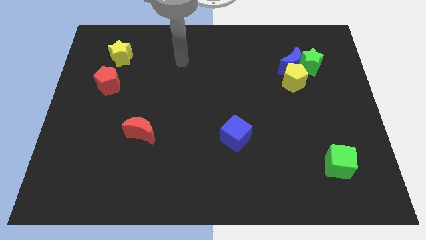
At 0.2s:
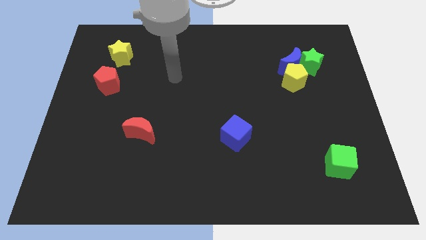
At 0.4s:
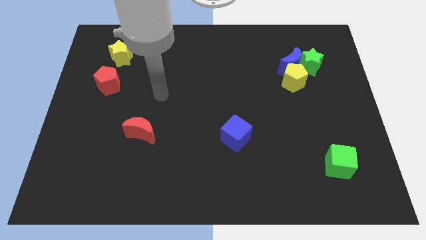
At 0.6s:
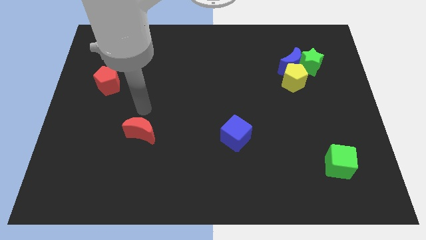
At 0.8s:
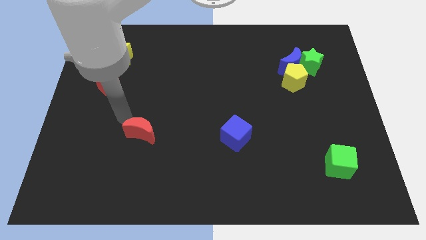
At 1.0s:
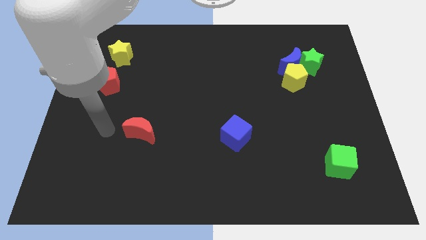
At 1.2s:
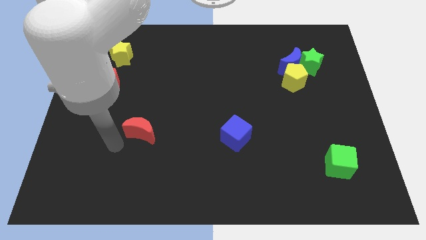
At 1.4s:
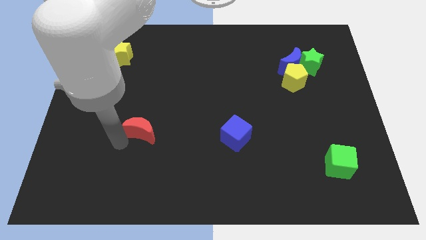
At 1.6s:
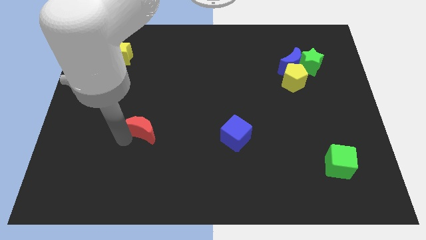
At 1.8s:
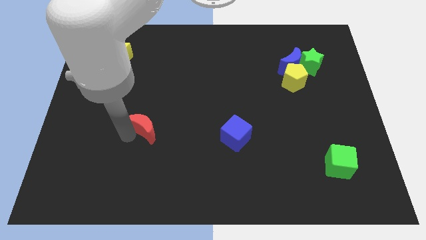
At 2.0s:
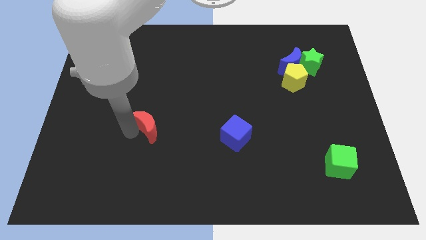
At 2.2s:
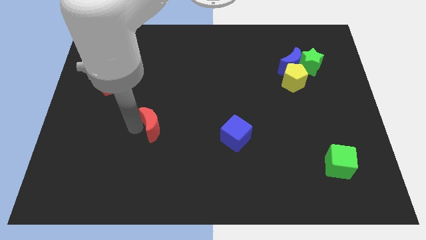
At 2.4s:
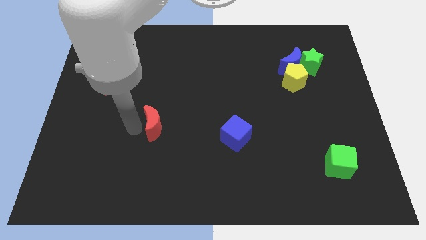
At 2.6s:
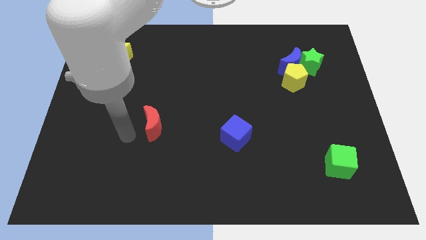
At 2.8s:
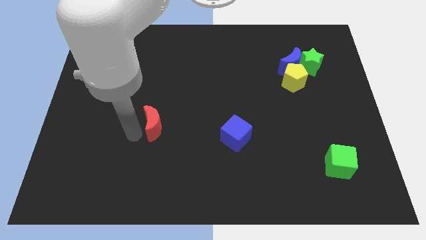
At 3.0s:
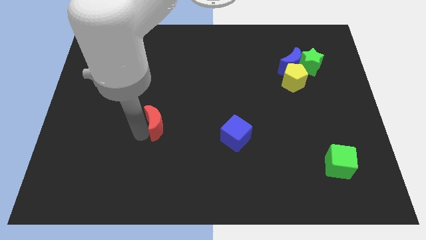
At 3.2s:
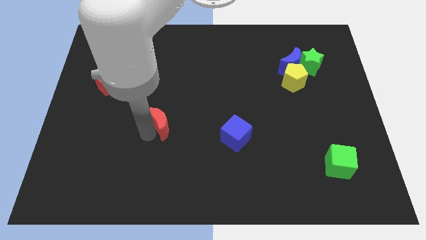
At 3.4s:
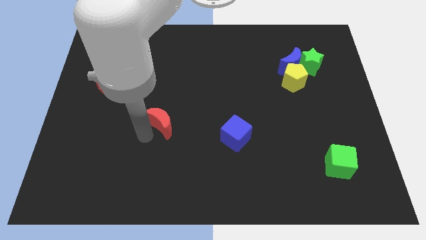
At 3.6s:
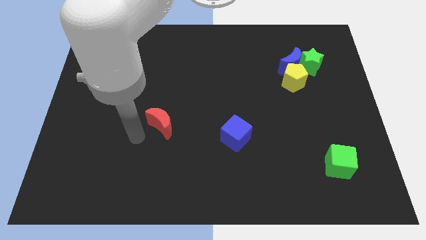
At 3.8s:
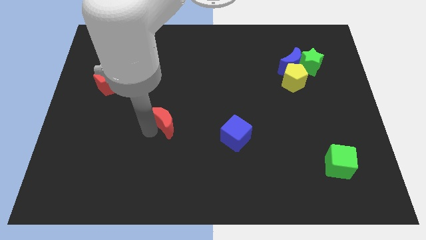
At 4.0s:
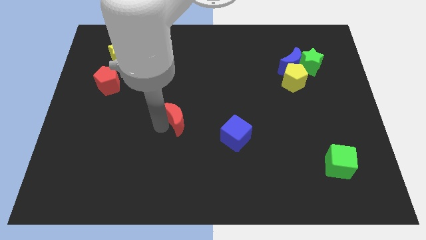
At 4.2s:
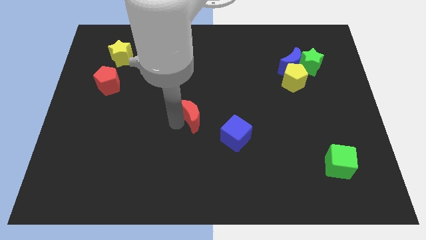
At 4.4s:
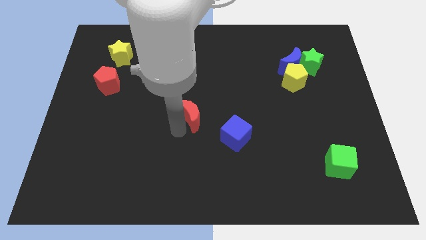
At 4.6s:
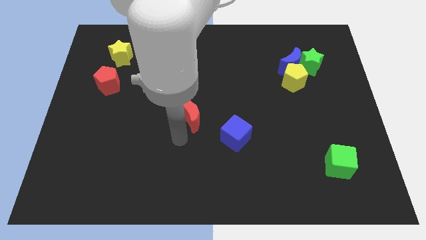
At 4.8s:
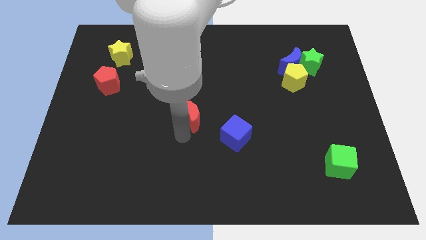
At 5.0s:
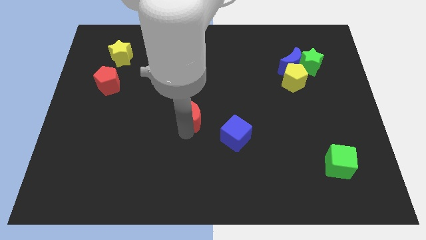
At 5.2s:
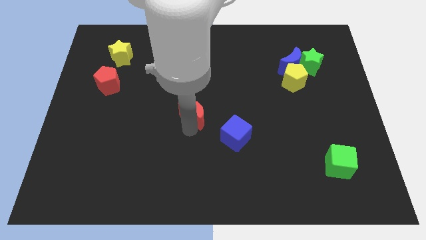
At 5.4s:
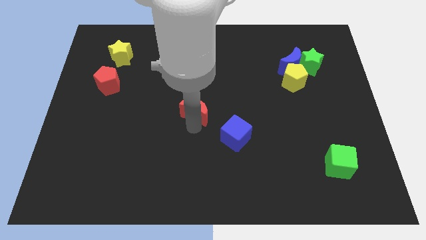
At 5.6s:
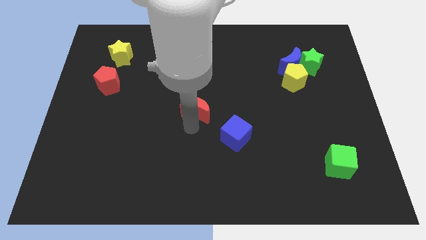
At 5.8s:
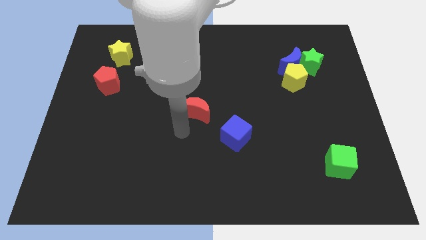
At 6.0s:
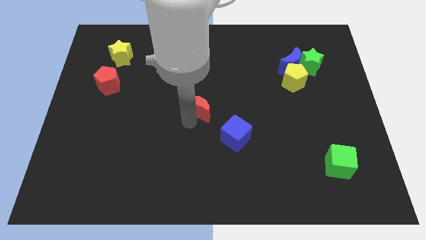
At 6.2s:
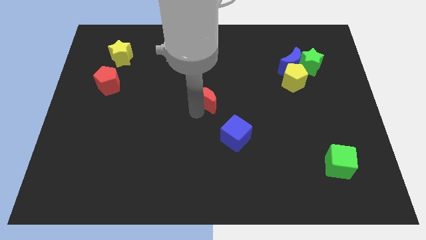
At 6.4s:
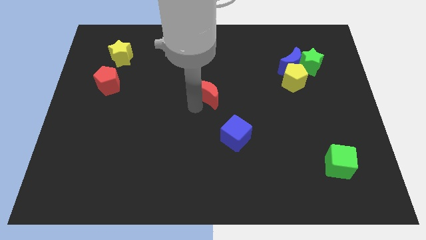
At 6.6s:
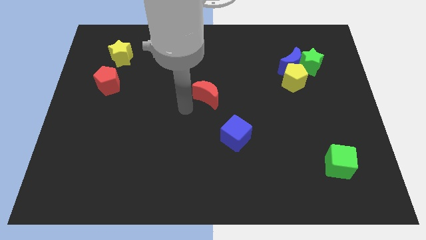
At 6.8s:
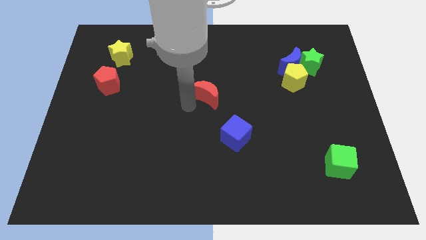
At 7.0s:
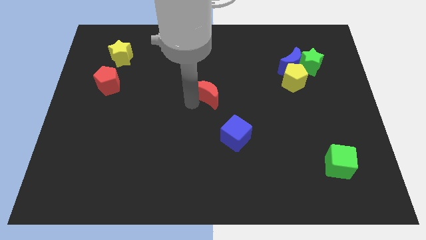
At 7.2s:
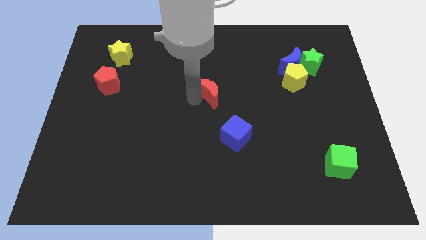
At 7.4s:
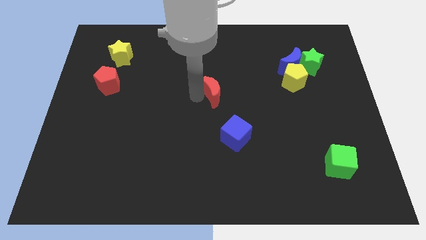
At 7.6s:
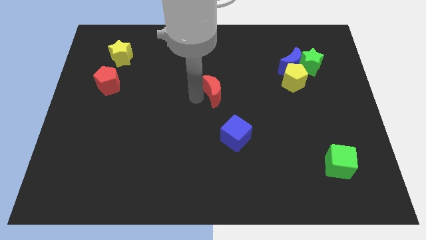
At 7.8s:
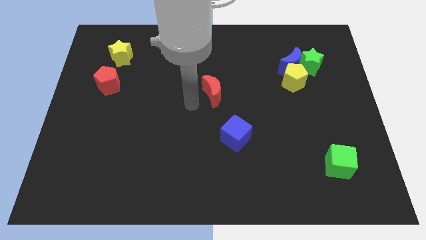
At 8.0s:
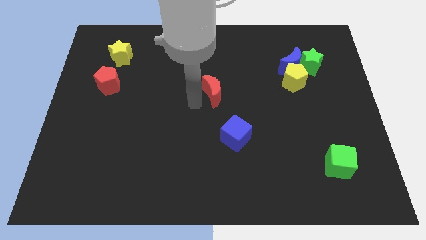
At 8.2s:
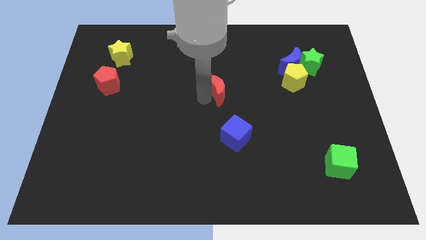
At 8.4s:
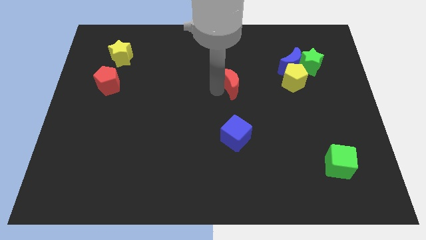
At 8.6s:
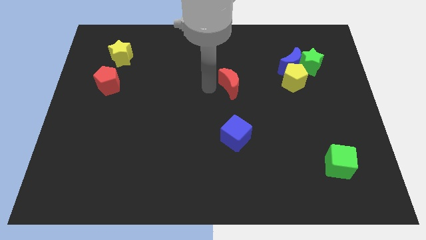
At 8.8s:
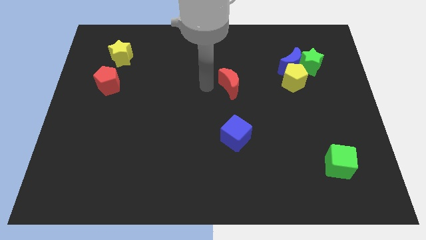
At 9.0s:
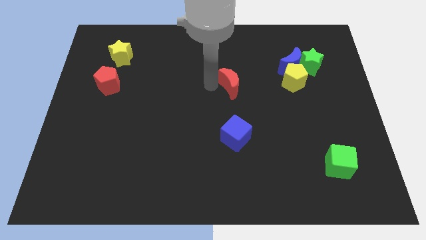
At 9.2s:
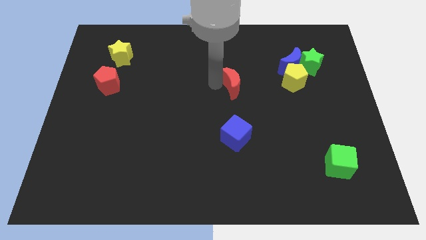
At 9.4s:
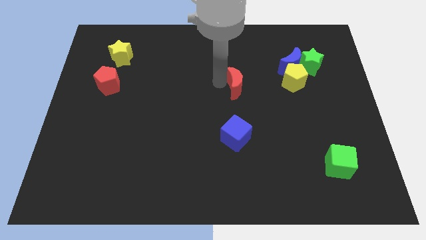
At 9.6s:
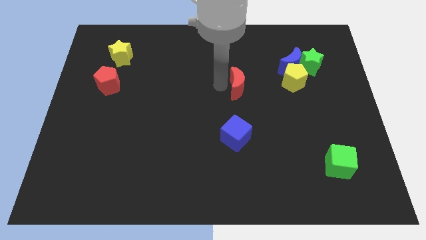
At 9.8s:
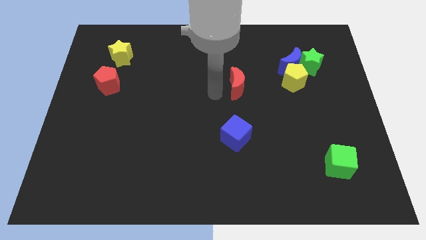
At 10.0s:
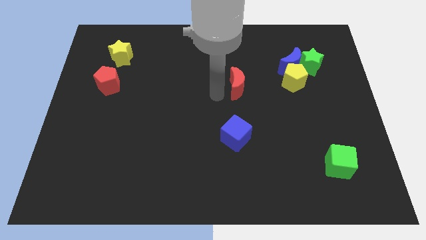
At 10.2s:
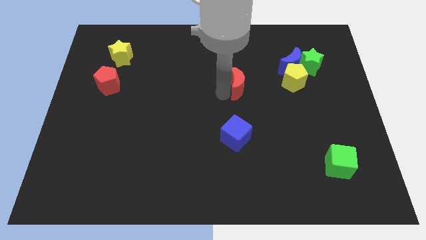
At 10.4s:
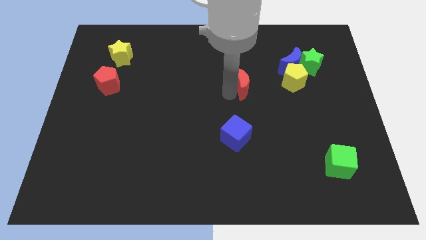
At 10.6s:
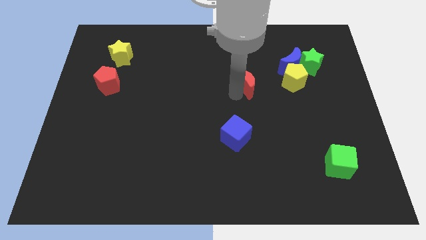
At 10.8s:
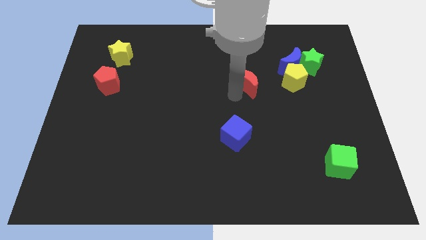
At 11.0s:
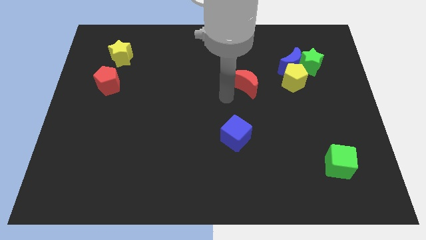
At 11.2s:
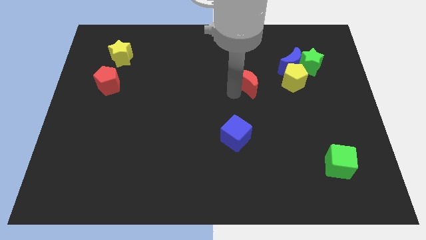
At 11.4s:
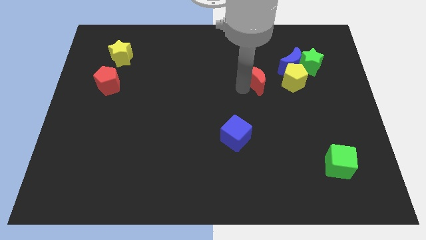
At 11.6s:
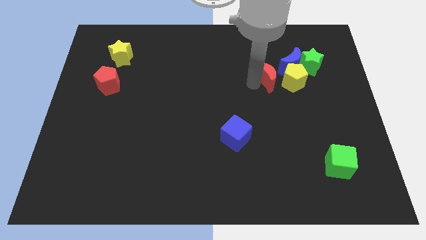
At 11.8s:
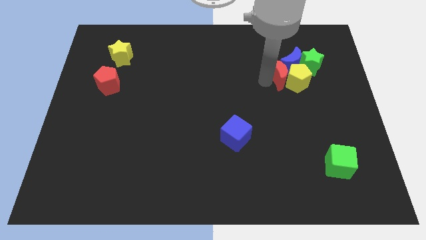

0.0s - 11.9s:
slide the red moon next to the blue moon

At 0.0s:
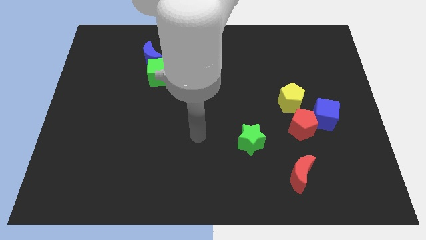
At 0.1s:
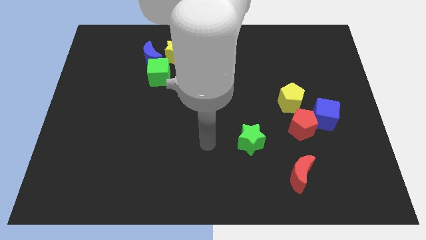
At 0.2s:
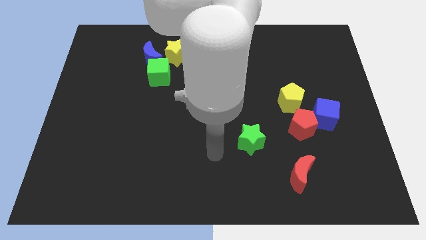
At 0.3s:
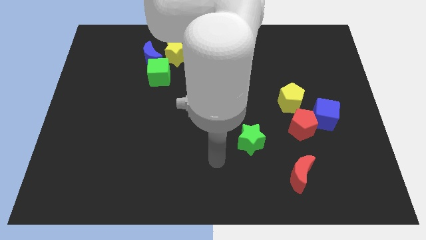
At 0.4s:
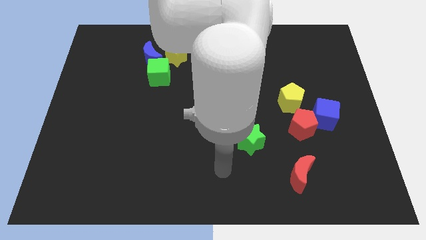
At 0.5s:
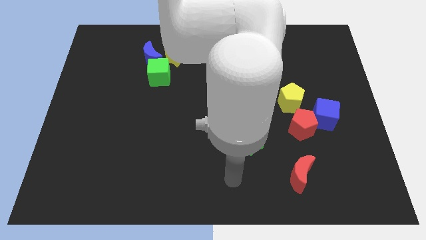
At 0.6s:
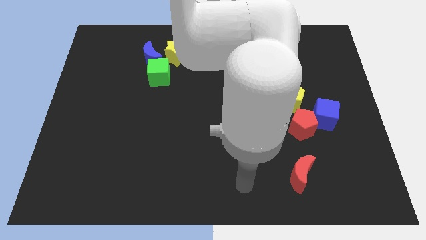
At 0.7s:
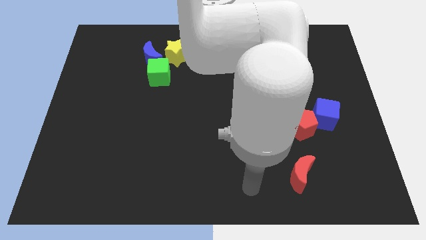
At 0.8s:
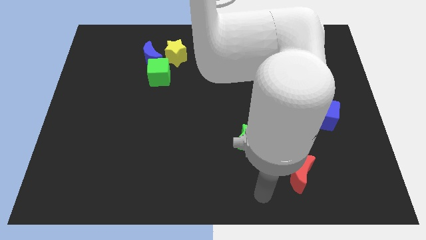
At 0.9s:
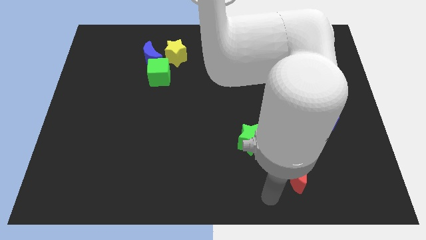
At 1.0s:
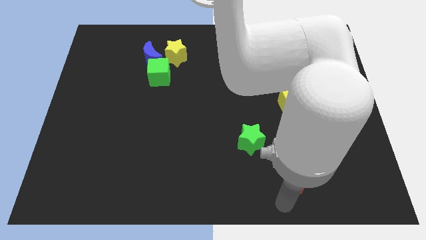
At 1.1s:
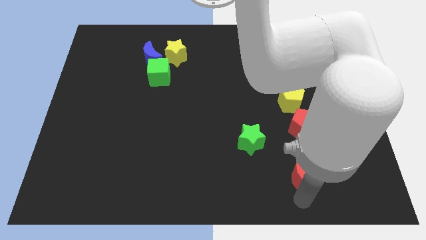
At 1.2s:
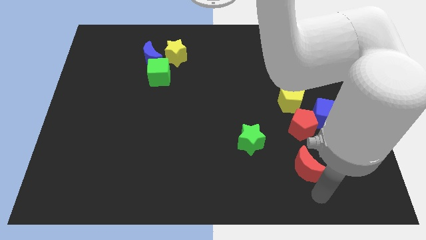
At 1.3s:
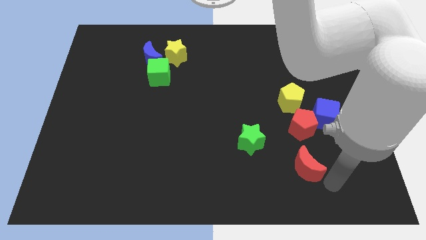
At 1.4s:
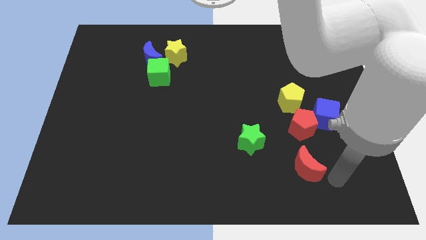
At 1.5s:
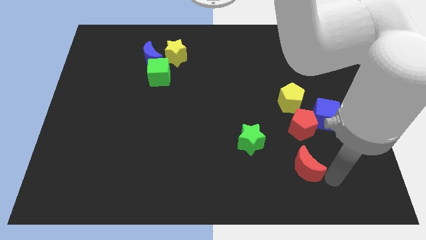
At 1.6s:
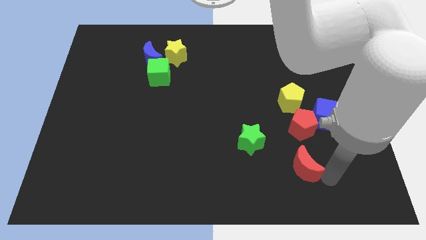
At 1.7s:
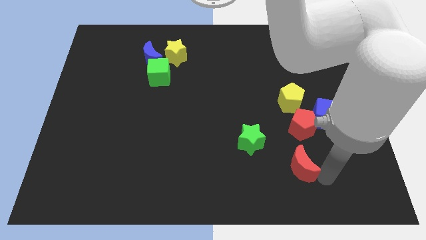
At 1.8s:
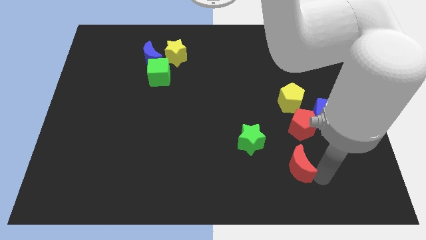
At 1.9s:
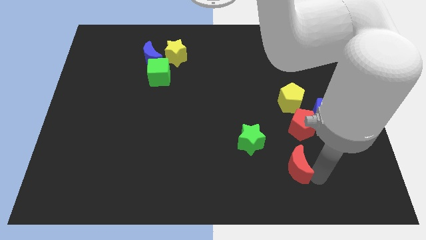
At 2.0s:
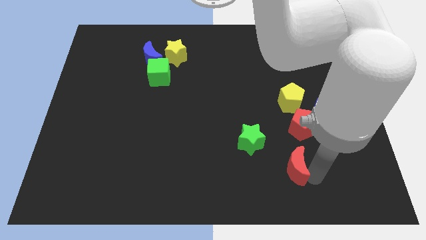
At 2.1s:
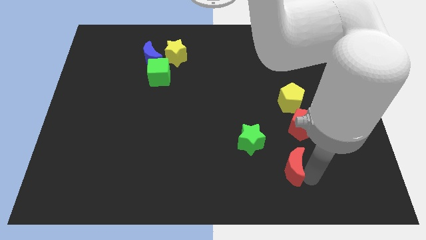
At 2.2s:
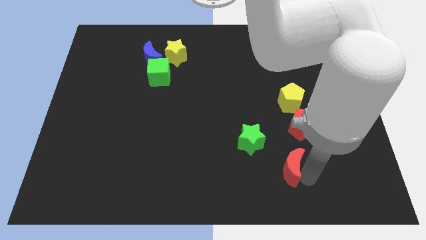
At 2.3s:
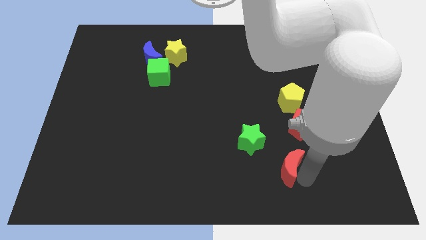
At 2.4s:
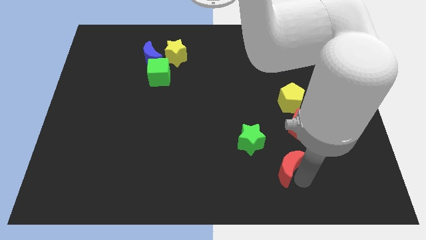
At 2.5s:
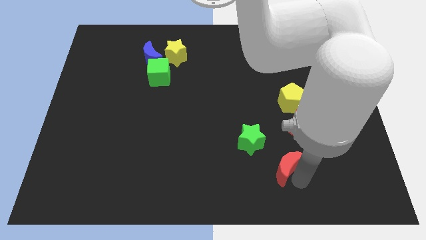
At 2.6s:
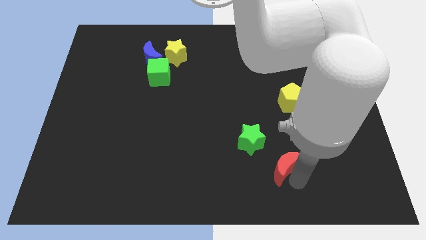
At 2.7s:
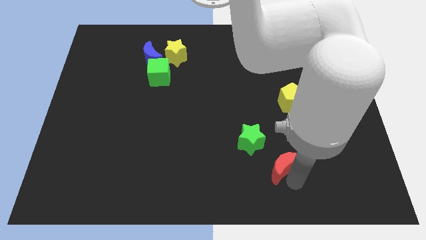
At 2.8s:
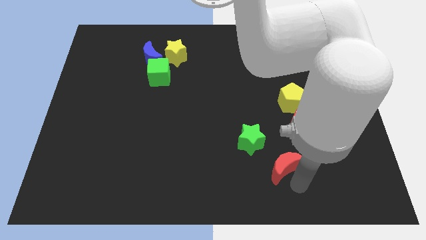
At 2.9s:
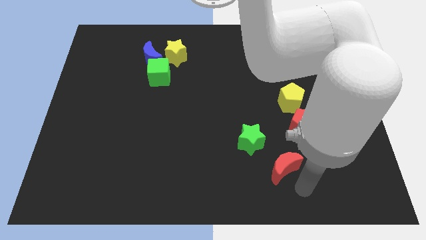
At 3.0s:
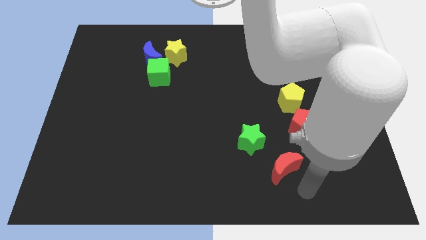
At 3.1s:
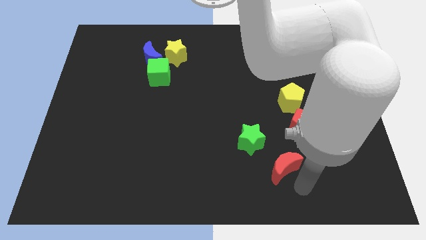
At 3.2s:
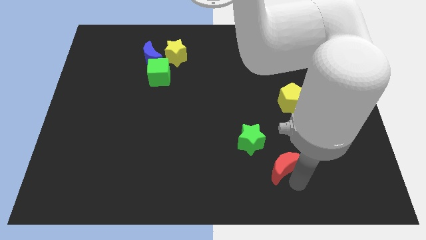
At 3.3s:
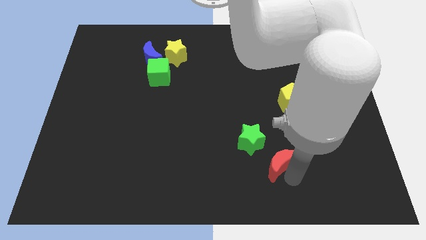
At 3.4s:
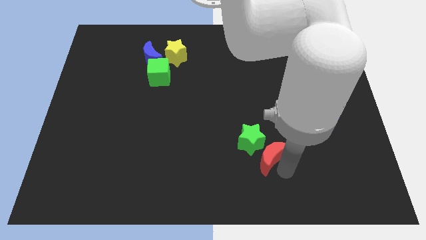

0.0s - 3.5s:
slide the red moon towards the green star
